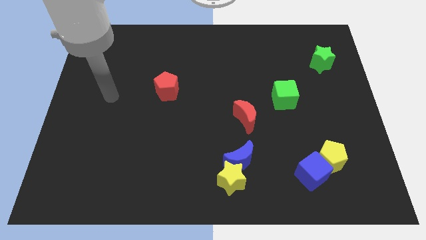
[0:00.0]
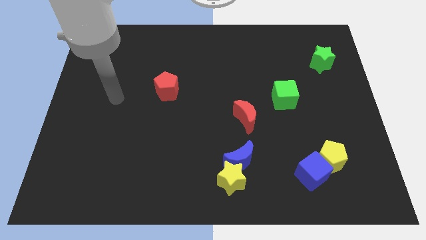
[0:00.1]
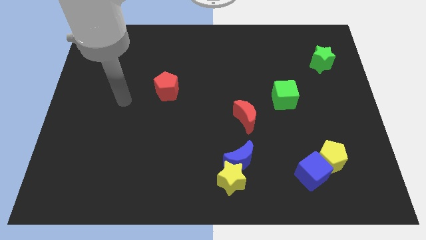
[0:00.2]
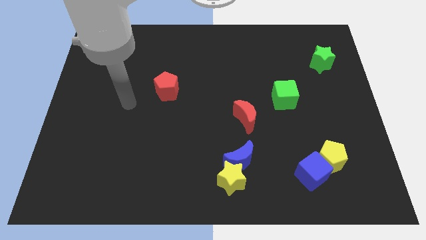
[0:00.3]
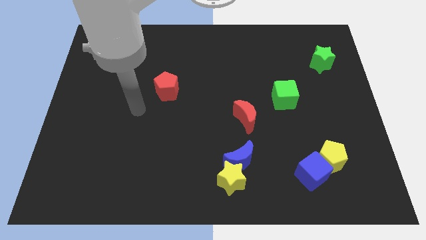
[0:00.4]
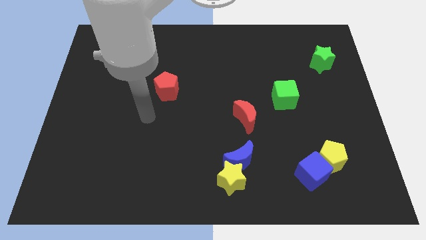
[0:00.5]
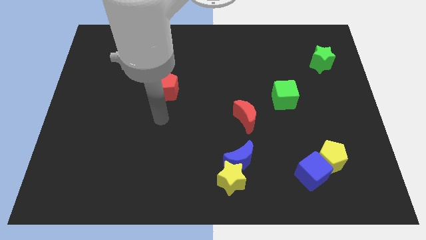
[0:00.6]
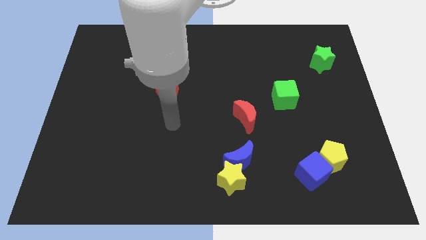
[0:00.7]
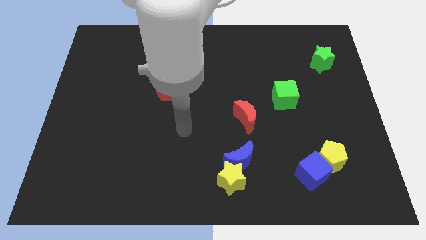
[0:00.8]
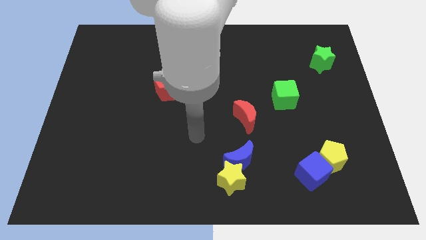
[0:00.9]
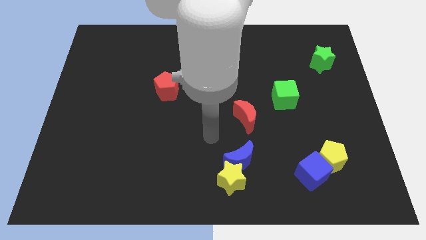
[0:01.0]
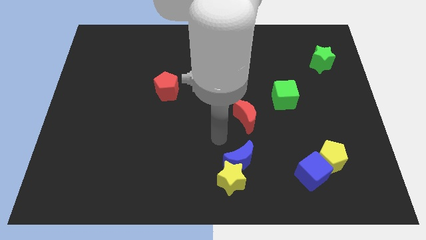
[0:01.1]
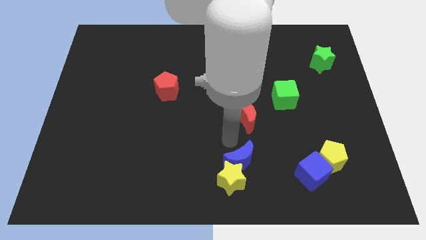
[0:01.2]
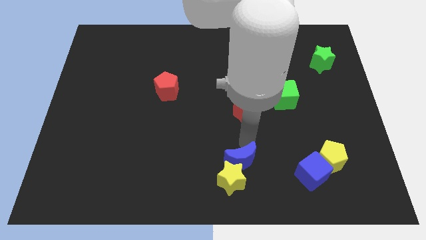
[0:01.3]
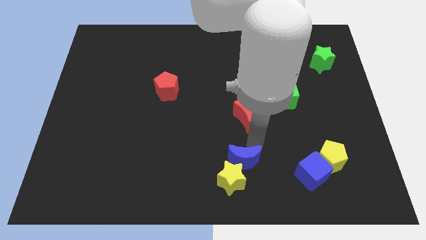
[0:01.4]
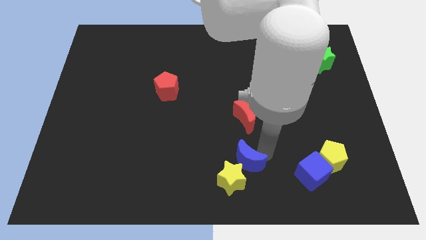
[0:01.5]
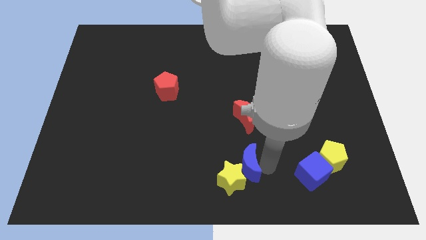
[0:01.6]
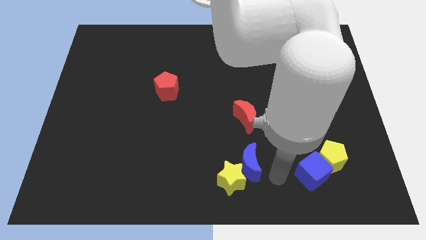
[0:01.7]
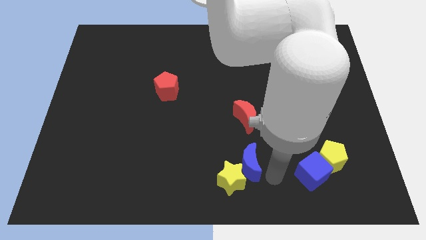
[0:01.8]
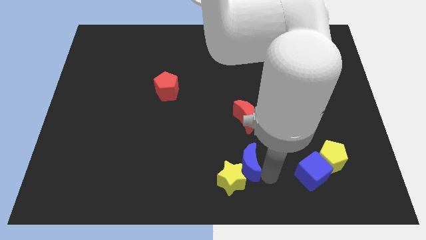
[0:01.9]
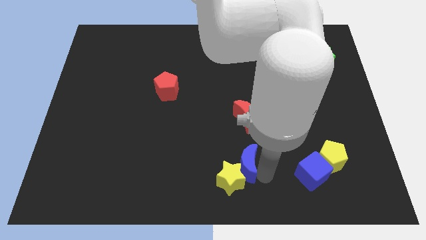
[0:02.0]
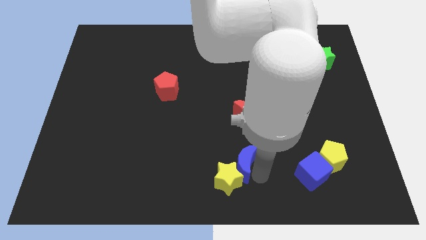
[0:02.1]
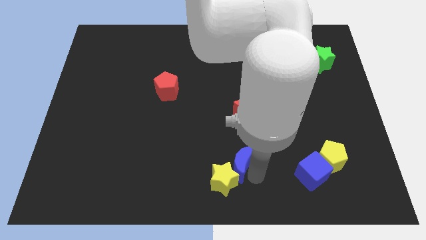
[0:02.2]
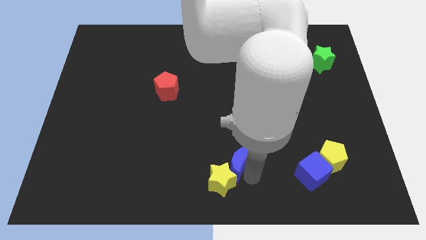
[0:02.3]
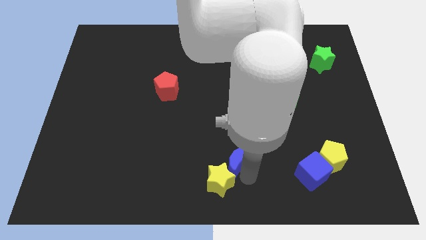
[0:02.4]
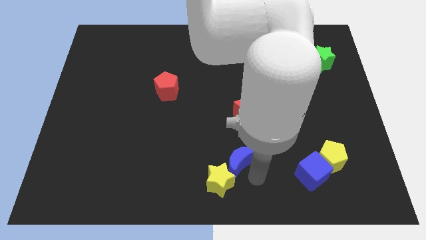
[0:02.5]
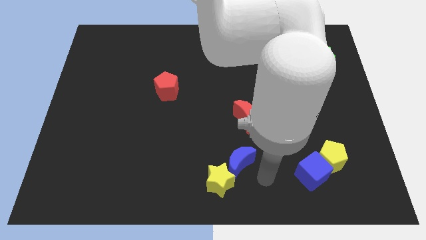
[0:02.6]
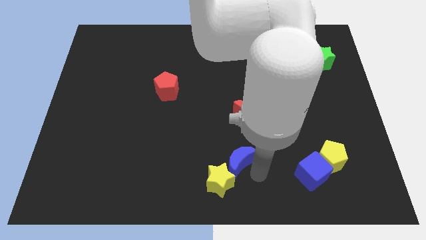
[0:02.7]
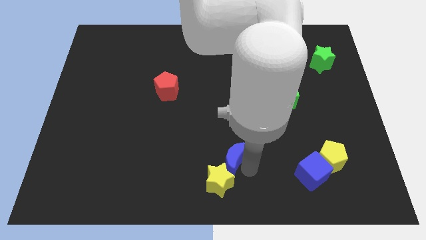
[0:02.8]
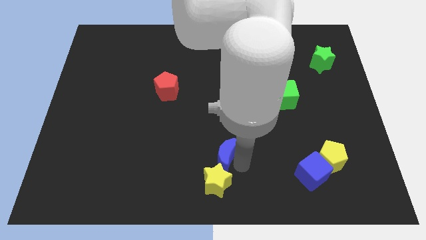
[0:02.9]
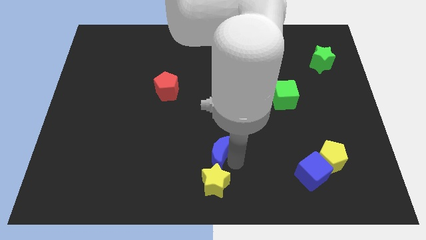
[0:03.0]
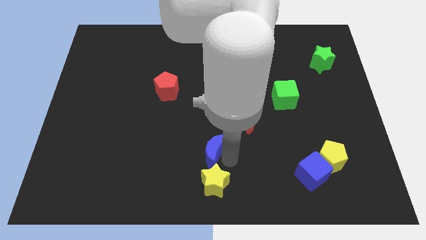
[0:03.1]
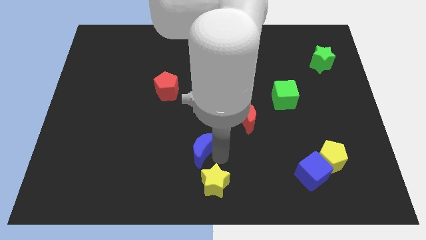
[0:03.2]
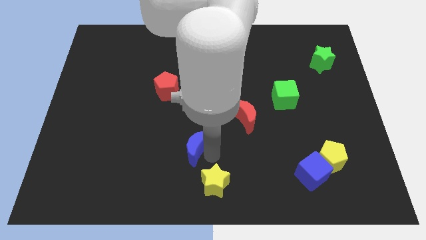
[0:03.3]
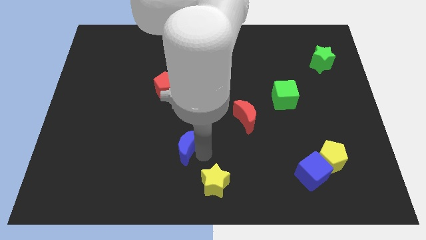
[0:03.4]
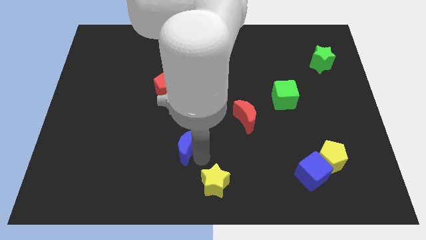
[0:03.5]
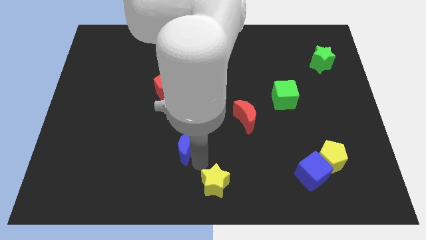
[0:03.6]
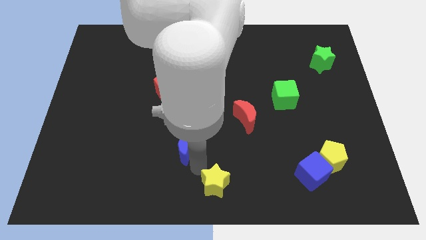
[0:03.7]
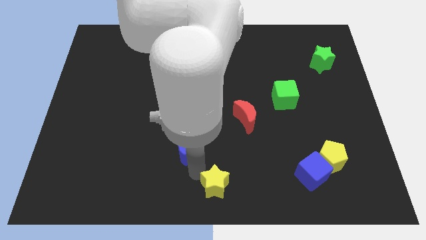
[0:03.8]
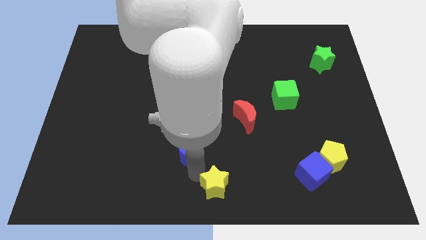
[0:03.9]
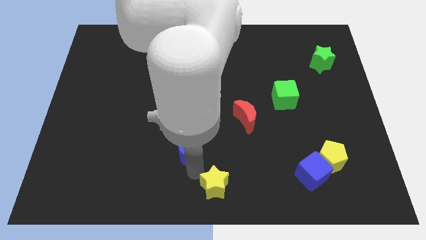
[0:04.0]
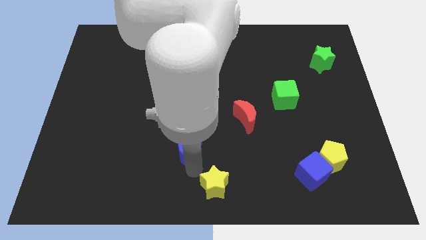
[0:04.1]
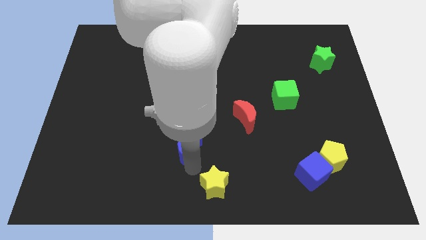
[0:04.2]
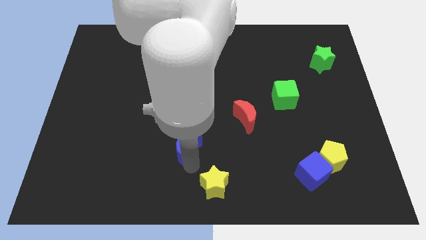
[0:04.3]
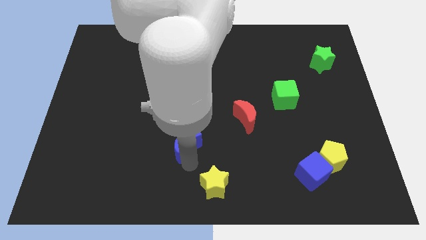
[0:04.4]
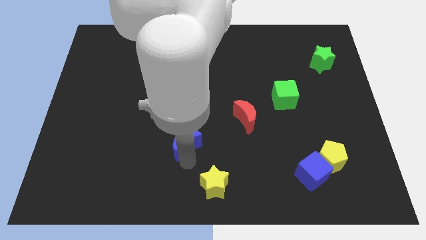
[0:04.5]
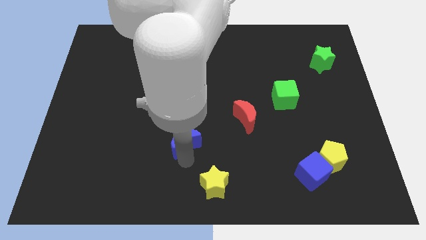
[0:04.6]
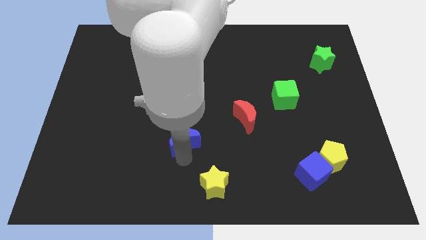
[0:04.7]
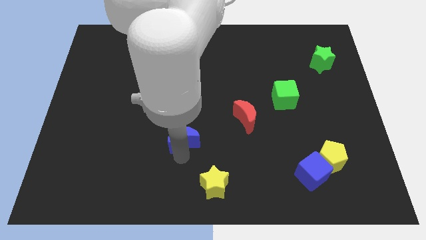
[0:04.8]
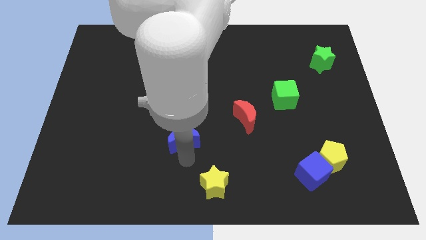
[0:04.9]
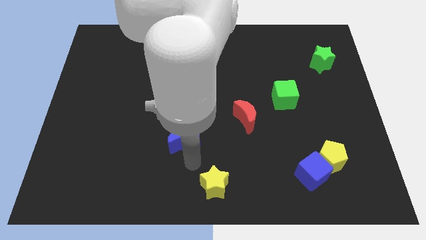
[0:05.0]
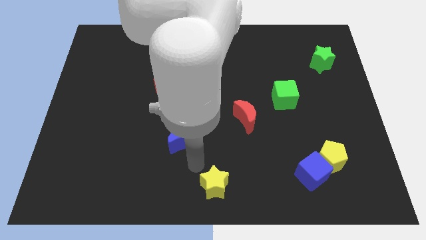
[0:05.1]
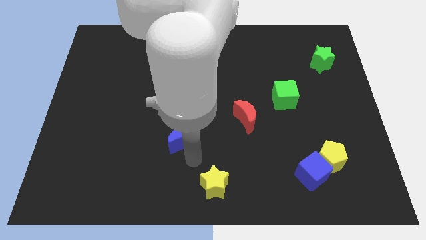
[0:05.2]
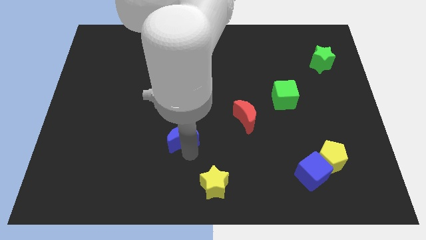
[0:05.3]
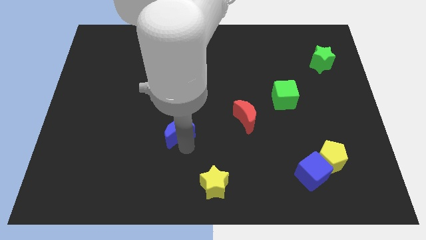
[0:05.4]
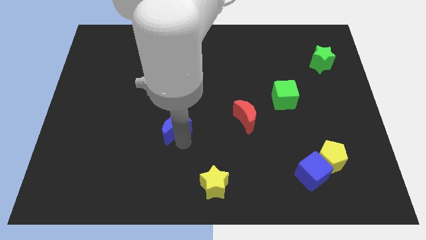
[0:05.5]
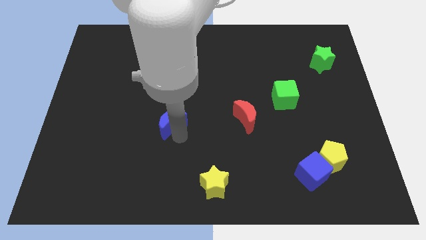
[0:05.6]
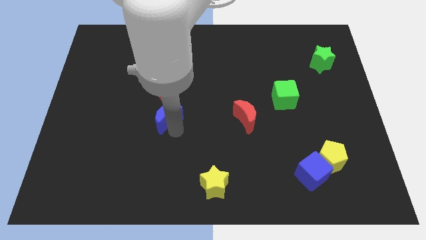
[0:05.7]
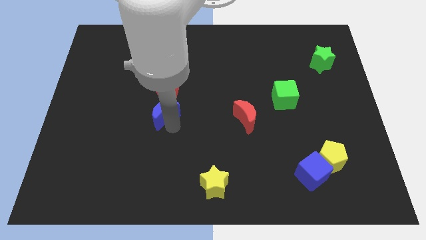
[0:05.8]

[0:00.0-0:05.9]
slide the blue moon up and then left

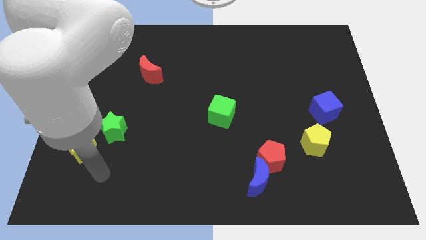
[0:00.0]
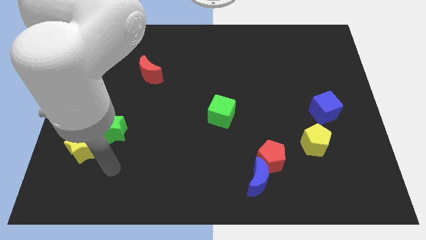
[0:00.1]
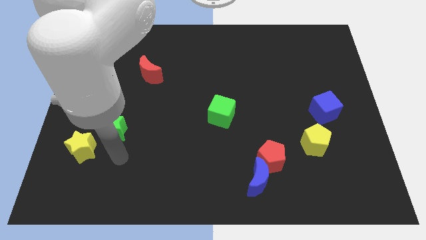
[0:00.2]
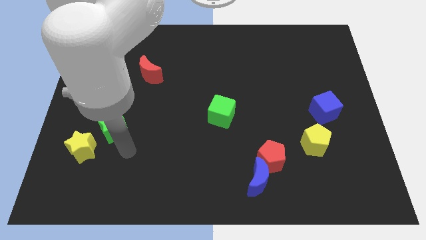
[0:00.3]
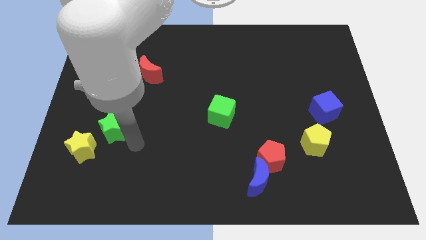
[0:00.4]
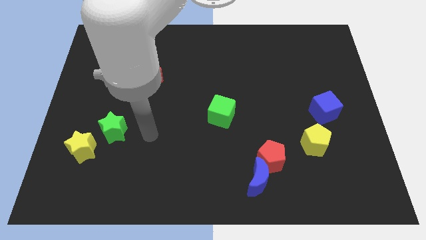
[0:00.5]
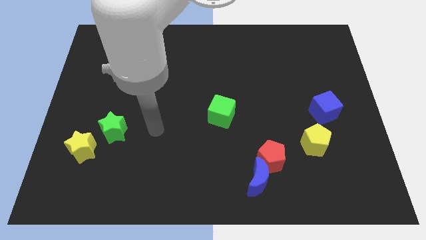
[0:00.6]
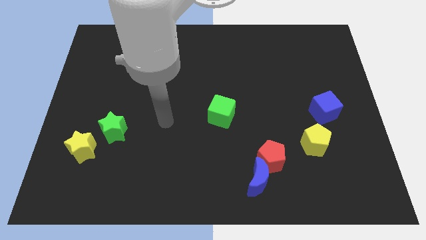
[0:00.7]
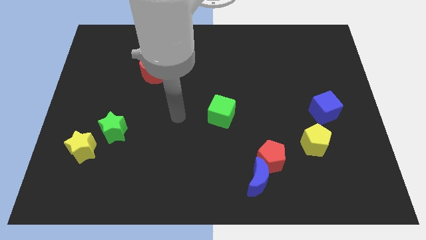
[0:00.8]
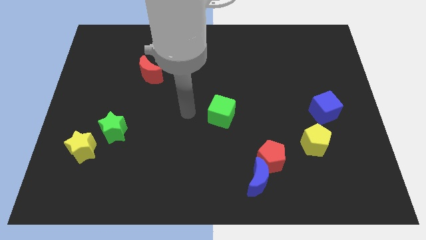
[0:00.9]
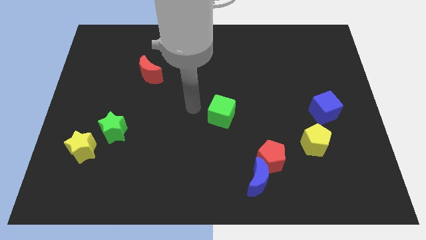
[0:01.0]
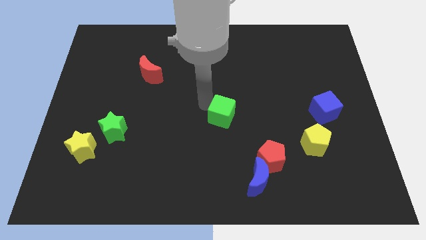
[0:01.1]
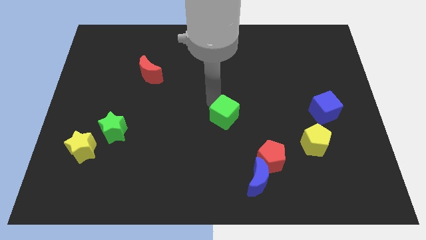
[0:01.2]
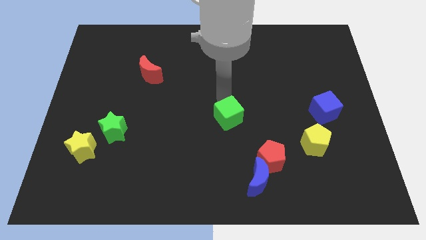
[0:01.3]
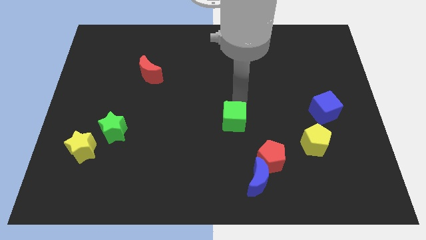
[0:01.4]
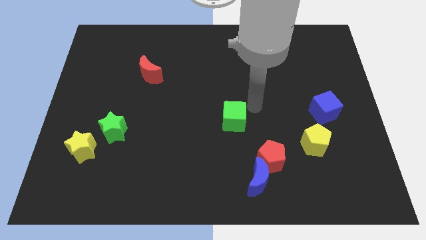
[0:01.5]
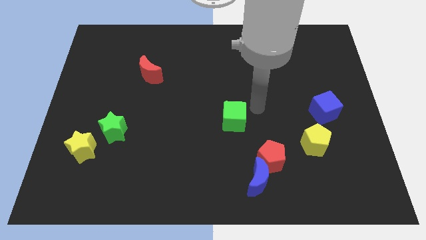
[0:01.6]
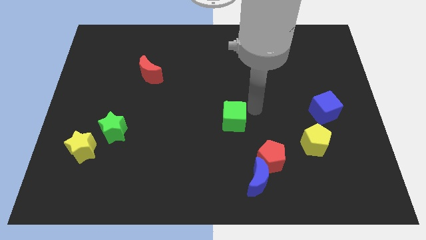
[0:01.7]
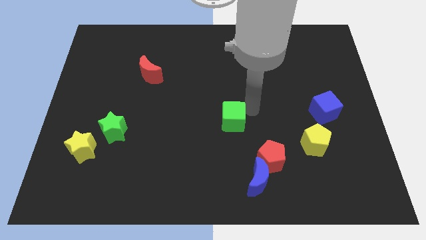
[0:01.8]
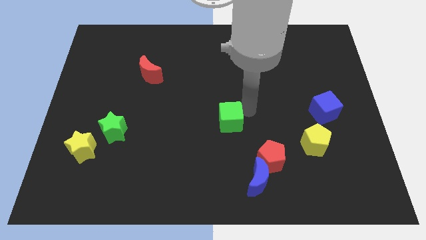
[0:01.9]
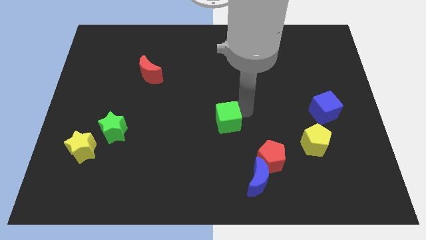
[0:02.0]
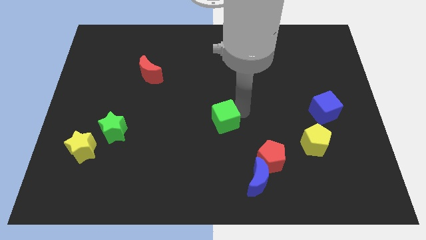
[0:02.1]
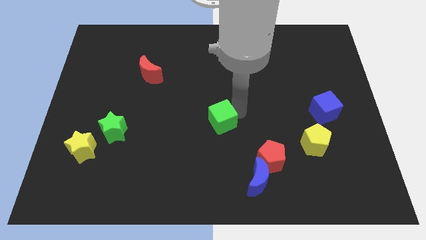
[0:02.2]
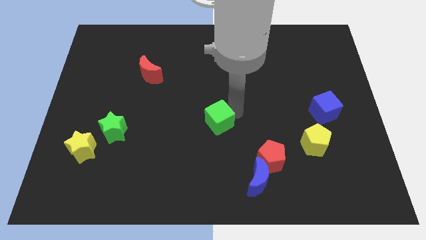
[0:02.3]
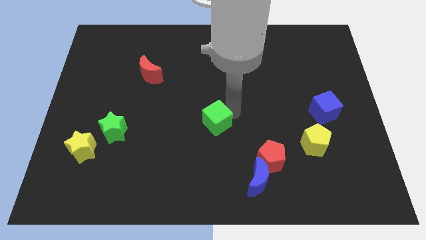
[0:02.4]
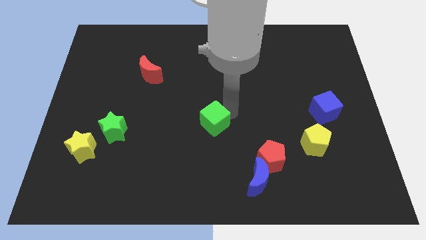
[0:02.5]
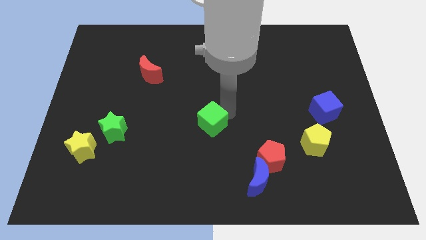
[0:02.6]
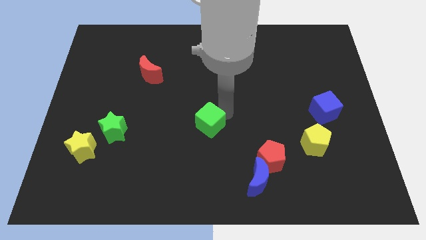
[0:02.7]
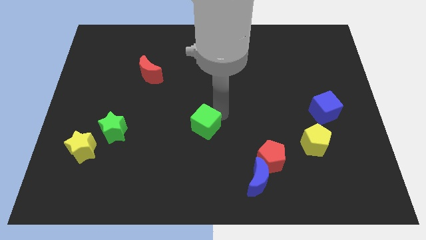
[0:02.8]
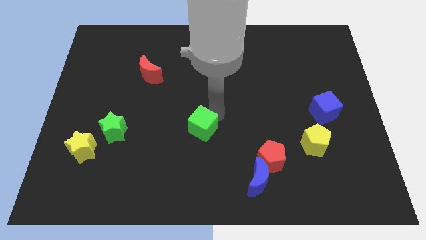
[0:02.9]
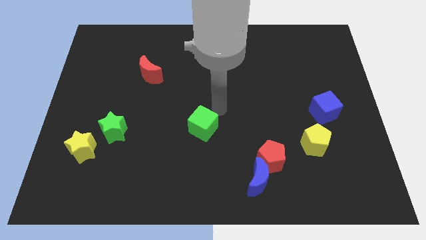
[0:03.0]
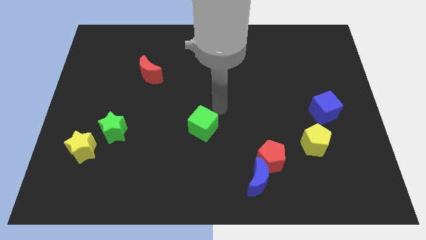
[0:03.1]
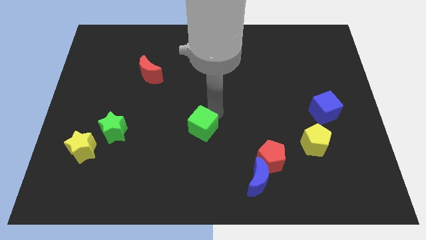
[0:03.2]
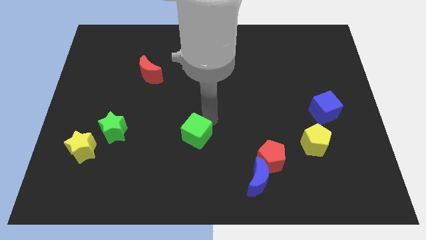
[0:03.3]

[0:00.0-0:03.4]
slightly move the green cube down and left diagonally
